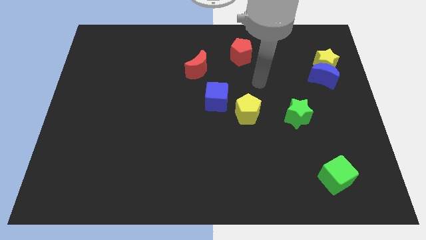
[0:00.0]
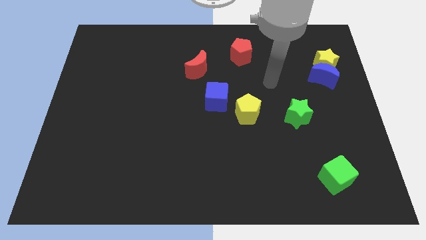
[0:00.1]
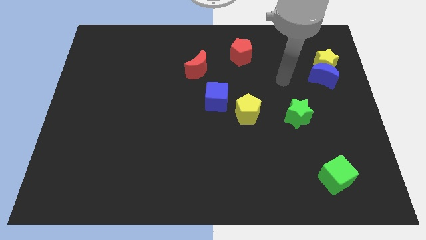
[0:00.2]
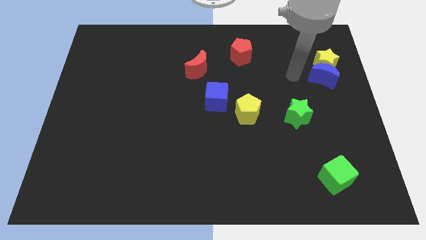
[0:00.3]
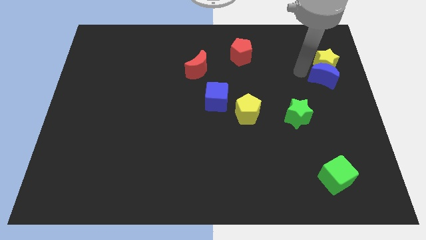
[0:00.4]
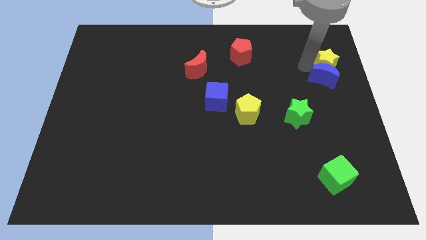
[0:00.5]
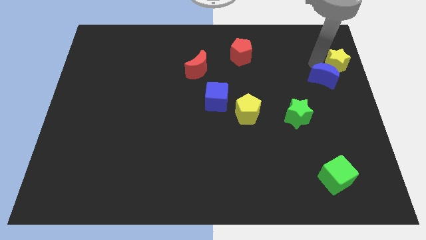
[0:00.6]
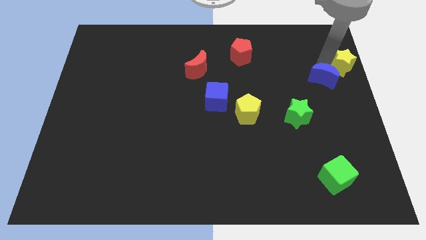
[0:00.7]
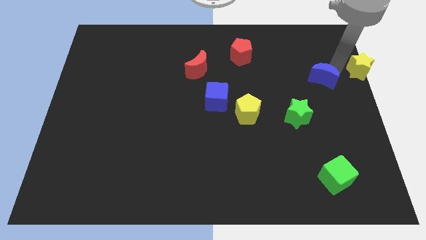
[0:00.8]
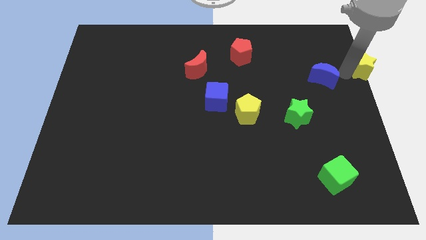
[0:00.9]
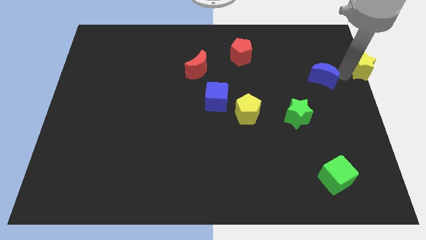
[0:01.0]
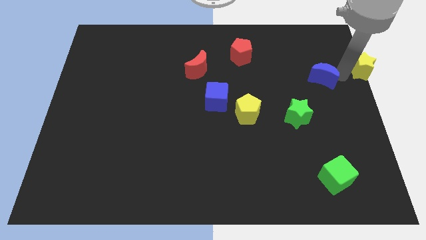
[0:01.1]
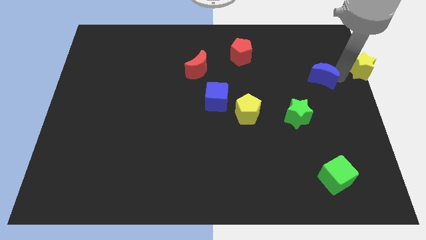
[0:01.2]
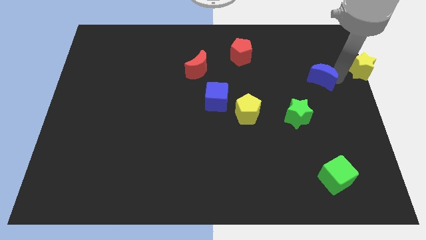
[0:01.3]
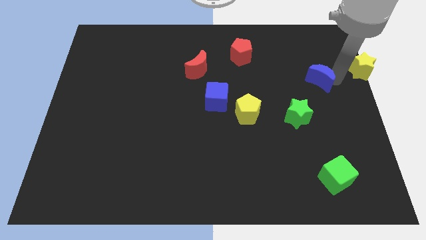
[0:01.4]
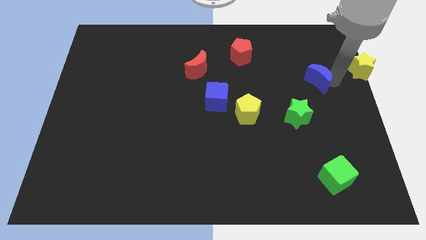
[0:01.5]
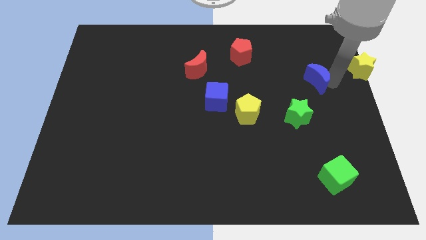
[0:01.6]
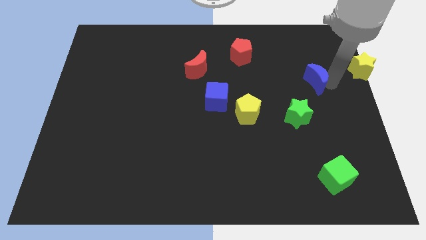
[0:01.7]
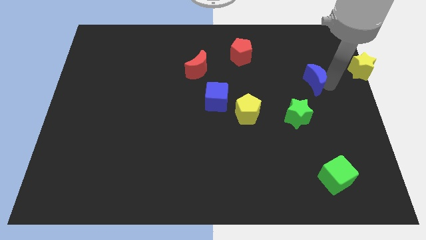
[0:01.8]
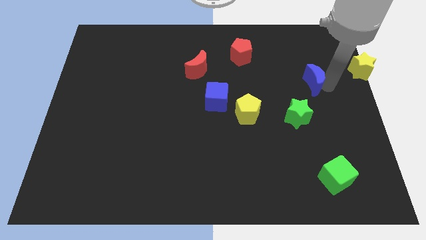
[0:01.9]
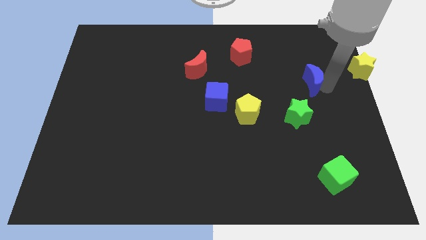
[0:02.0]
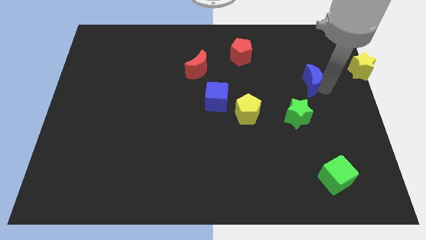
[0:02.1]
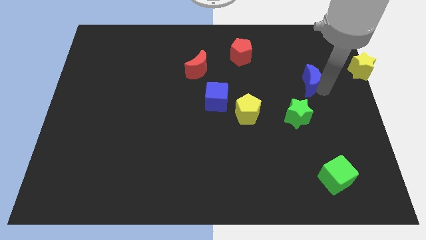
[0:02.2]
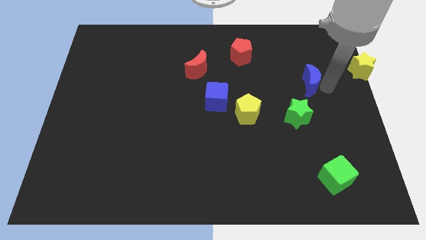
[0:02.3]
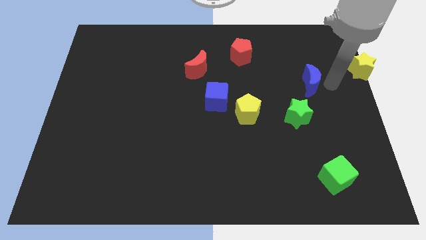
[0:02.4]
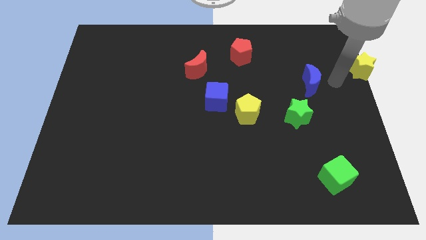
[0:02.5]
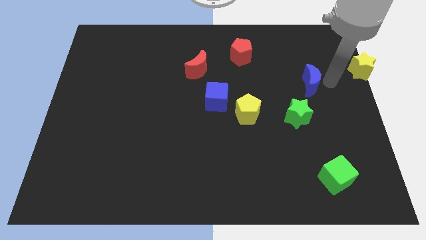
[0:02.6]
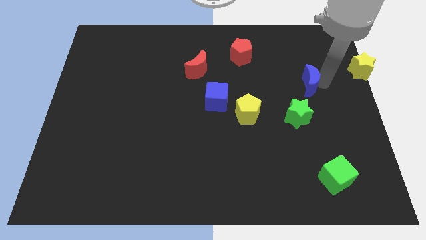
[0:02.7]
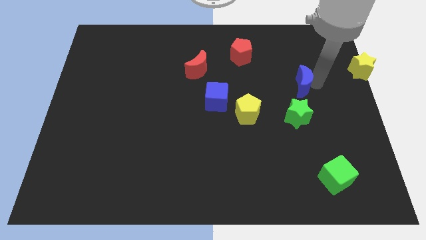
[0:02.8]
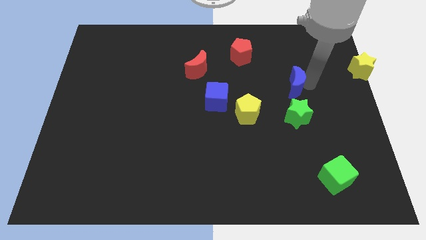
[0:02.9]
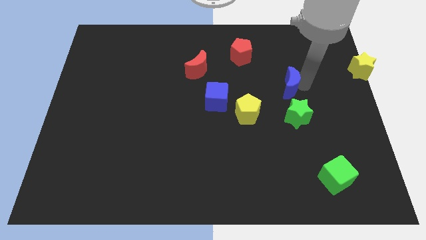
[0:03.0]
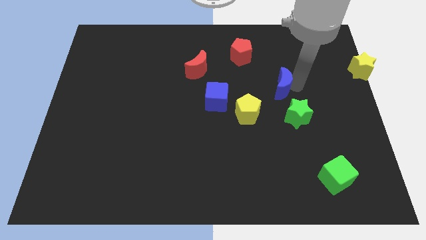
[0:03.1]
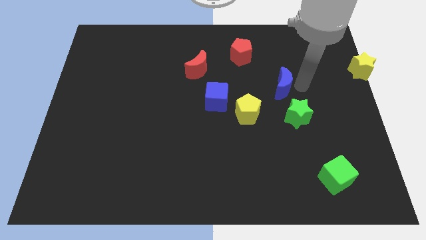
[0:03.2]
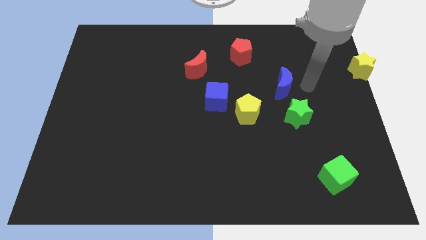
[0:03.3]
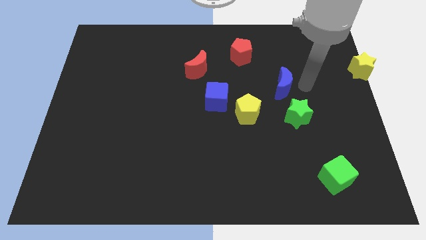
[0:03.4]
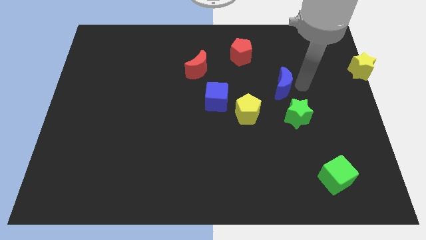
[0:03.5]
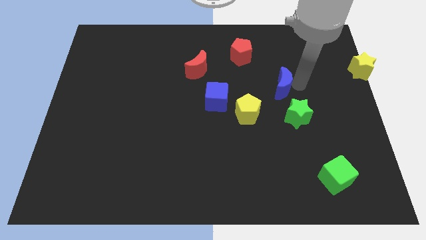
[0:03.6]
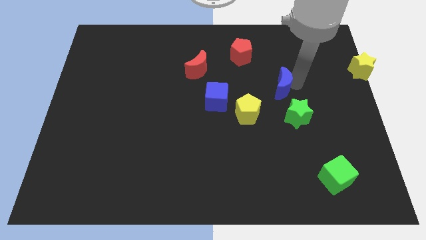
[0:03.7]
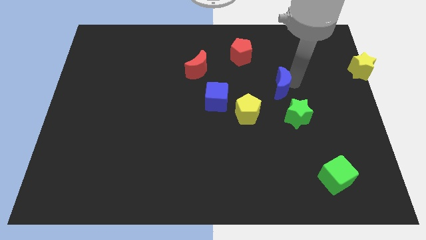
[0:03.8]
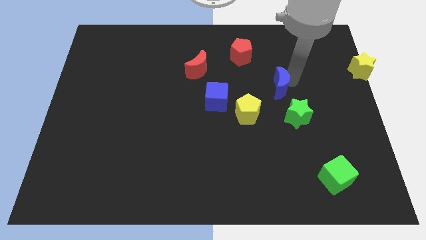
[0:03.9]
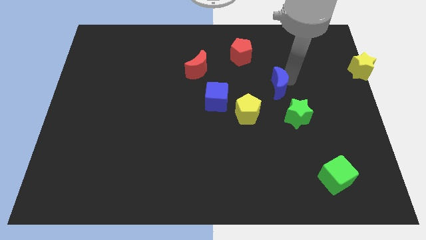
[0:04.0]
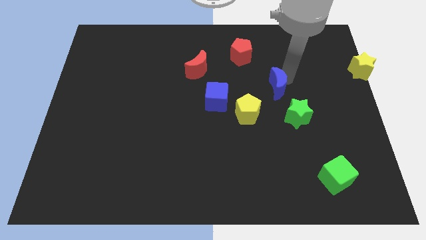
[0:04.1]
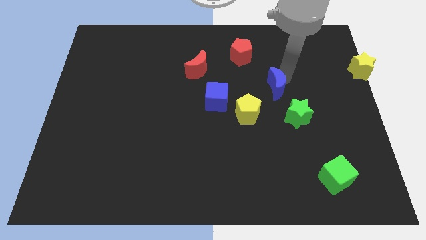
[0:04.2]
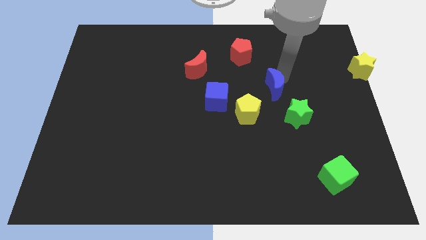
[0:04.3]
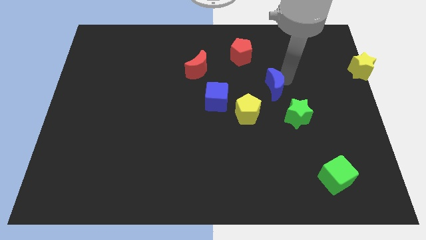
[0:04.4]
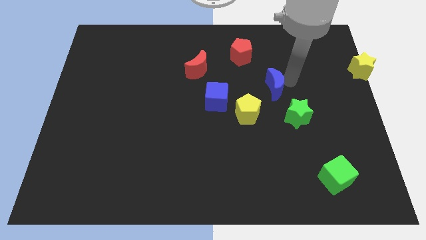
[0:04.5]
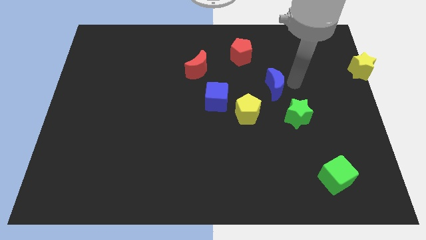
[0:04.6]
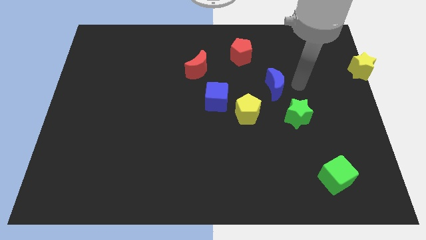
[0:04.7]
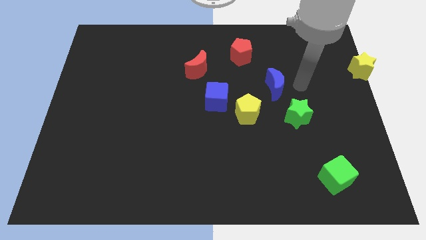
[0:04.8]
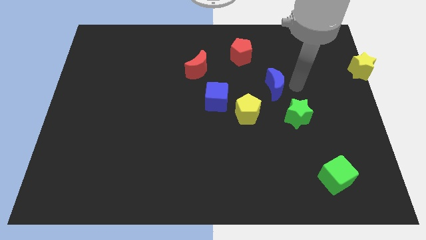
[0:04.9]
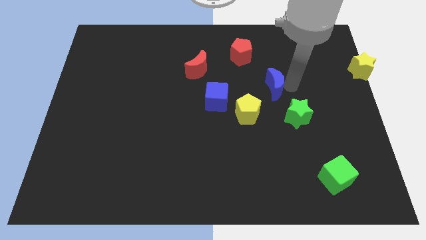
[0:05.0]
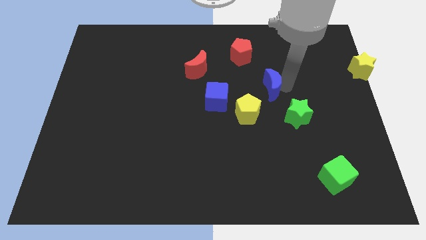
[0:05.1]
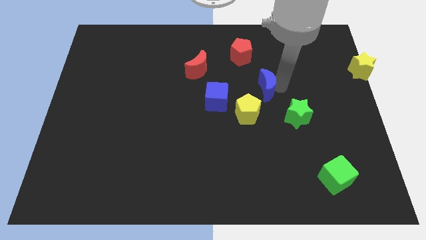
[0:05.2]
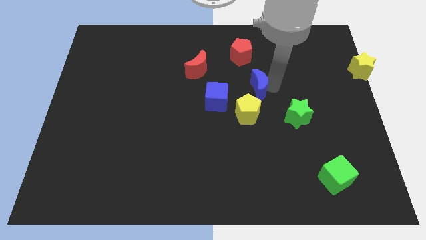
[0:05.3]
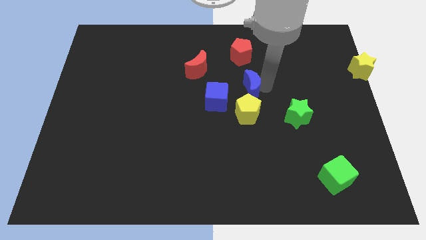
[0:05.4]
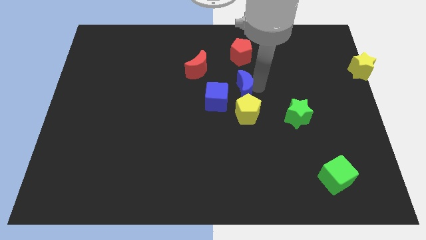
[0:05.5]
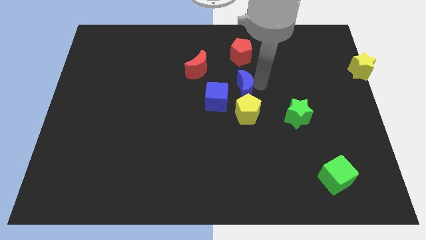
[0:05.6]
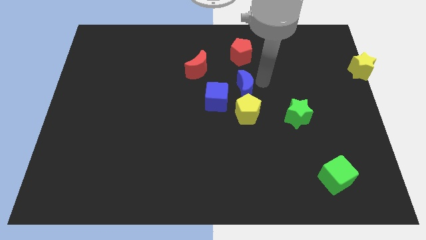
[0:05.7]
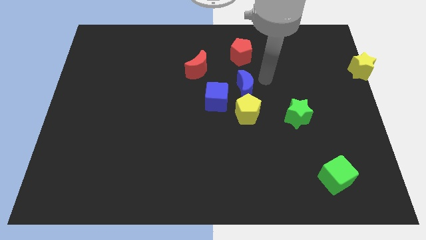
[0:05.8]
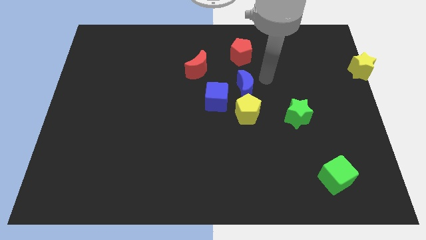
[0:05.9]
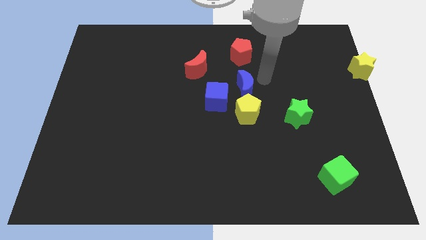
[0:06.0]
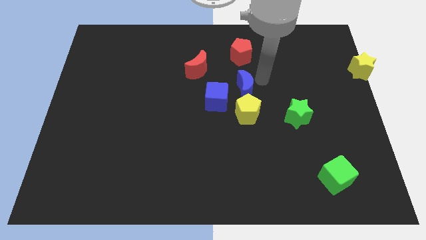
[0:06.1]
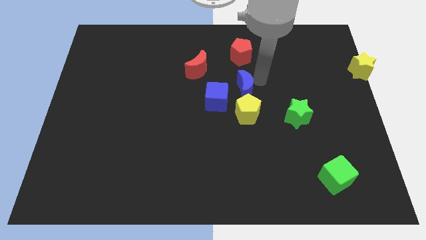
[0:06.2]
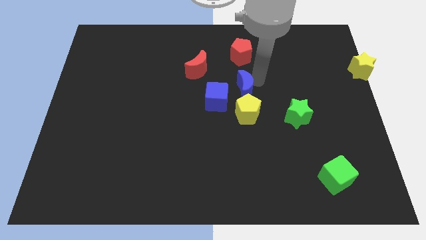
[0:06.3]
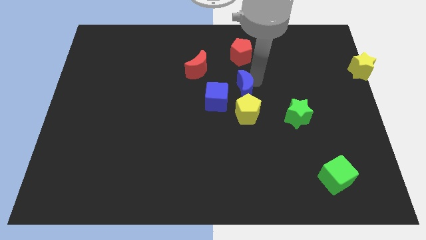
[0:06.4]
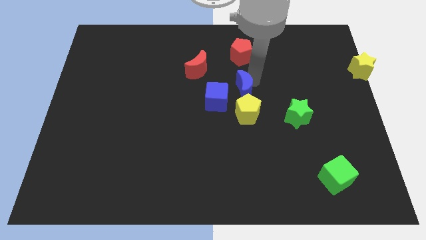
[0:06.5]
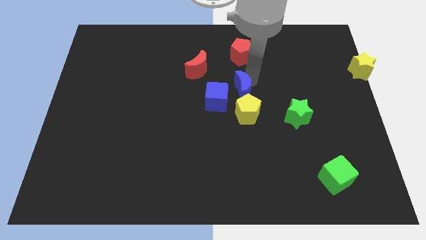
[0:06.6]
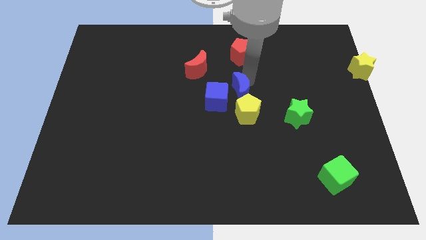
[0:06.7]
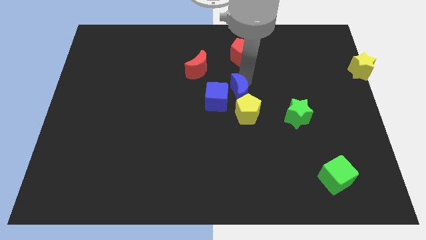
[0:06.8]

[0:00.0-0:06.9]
put the blue moon close to the blue cube

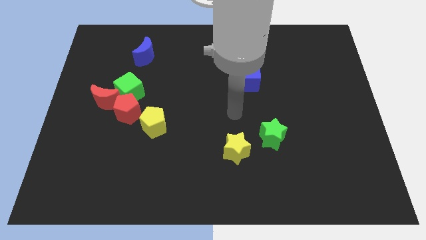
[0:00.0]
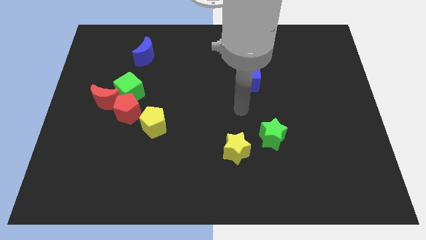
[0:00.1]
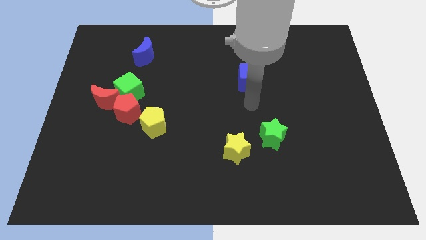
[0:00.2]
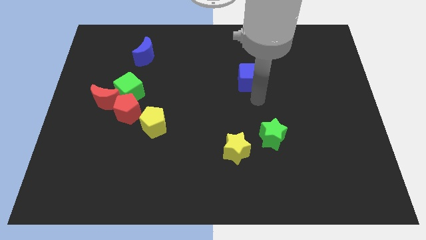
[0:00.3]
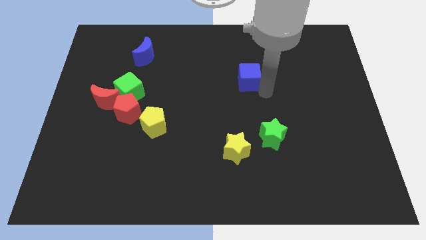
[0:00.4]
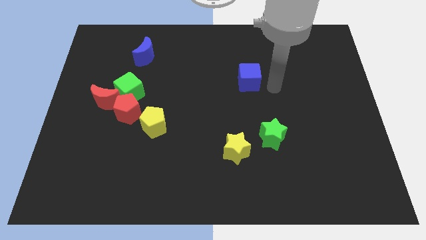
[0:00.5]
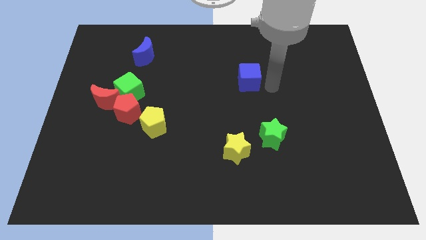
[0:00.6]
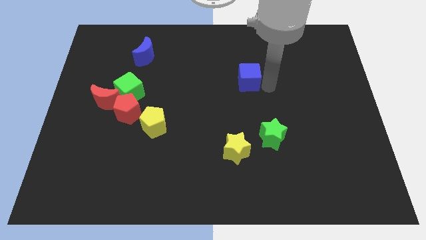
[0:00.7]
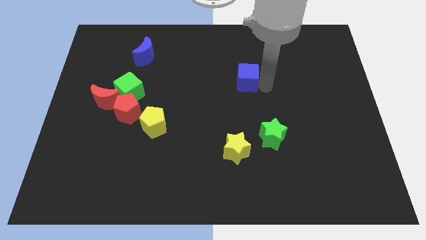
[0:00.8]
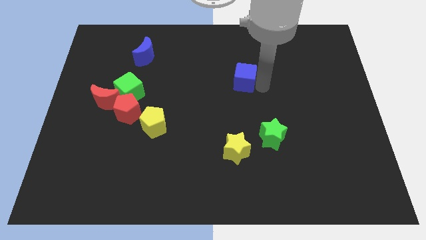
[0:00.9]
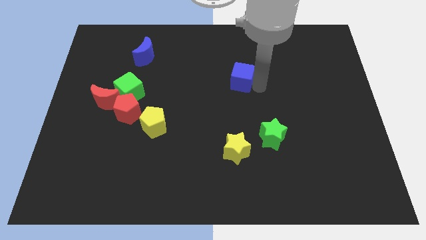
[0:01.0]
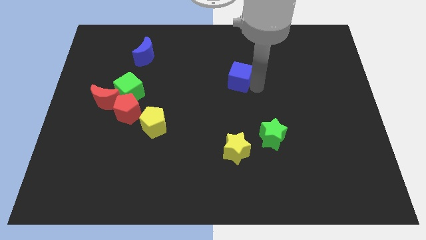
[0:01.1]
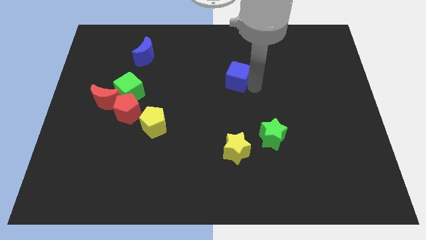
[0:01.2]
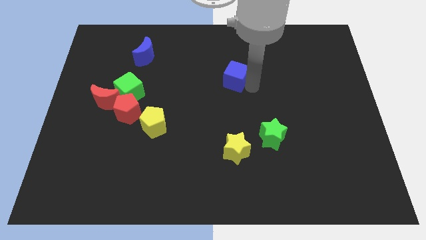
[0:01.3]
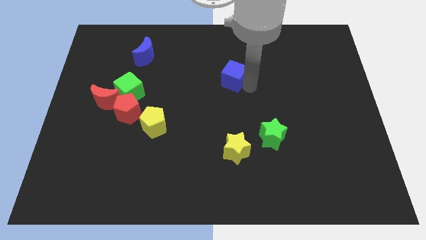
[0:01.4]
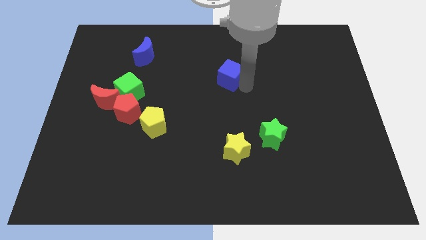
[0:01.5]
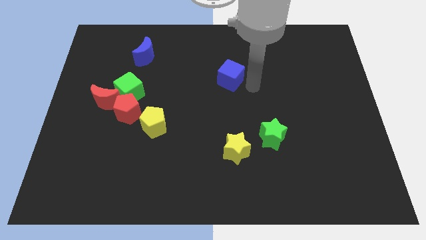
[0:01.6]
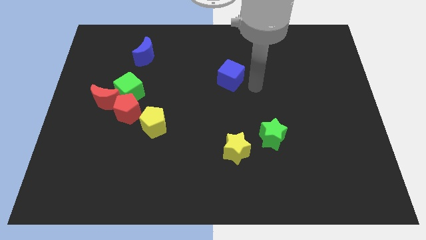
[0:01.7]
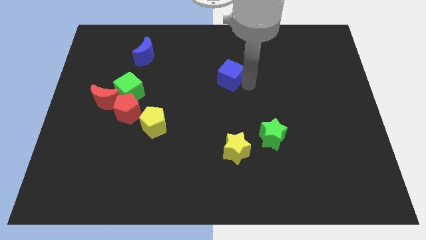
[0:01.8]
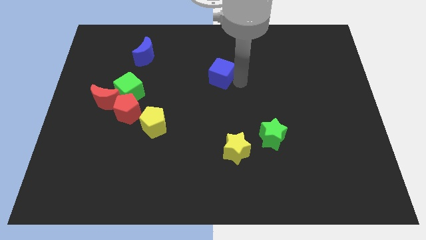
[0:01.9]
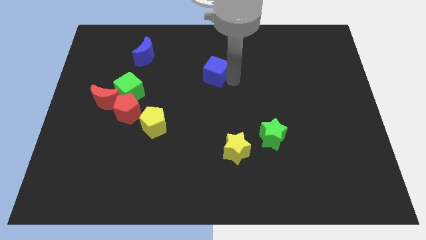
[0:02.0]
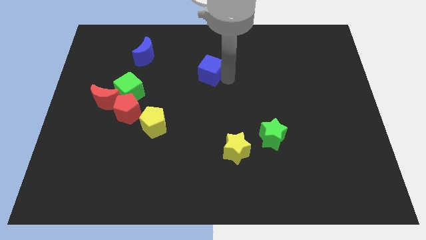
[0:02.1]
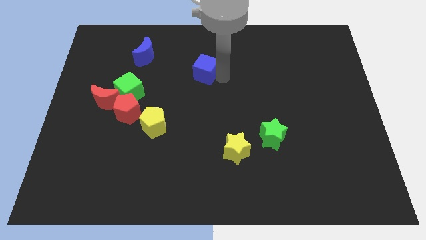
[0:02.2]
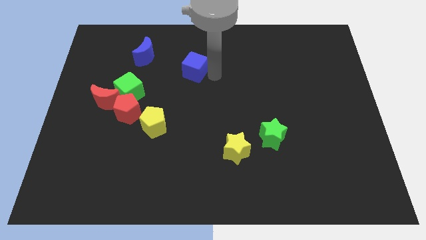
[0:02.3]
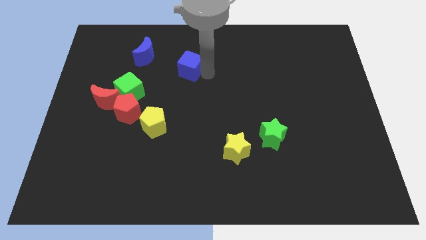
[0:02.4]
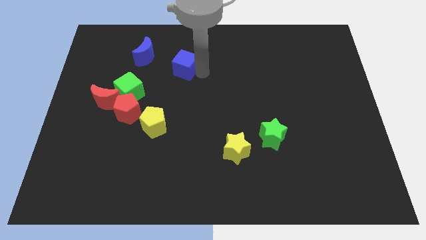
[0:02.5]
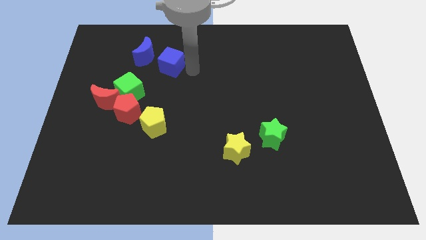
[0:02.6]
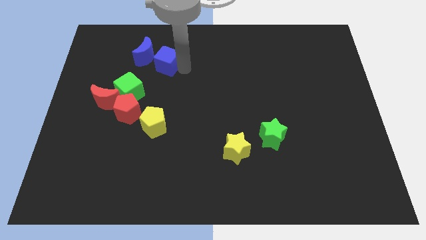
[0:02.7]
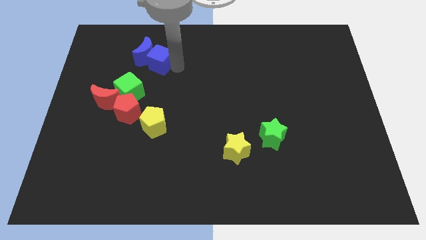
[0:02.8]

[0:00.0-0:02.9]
put the blue cube to the blue moon
